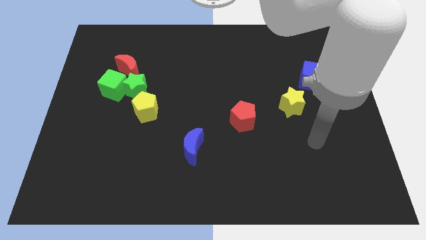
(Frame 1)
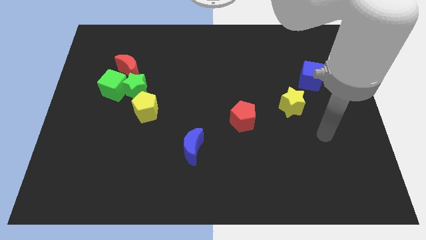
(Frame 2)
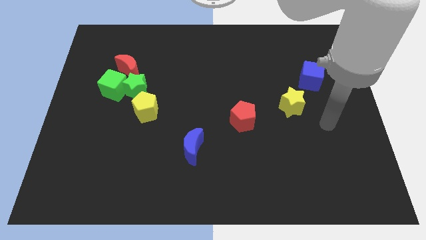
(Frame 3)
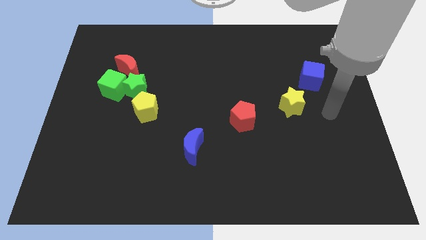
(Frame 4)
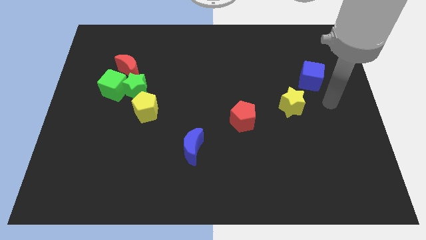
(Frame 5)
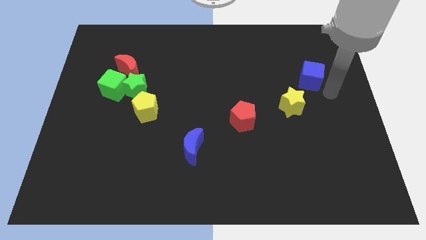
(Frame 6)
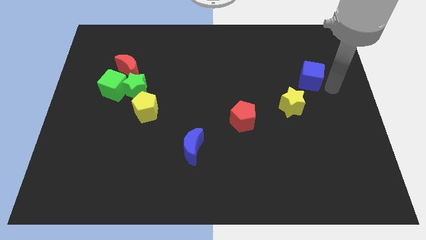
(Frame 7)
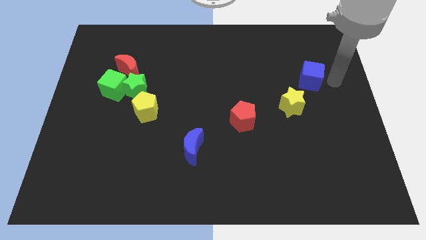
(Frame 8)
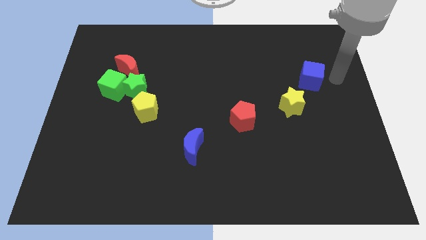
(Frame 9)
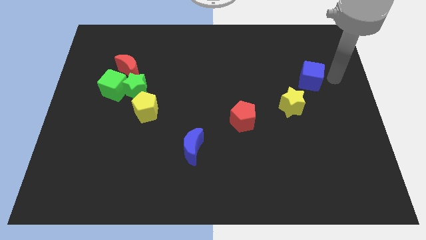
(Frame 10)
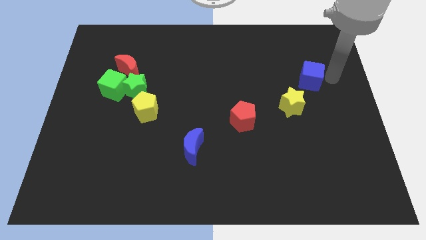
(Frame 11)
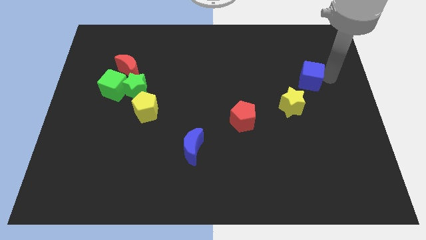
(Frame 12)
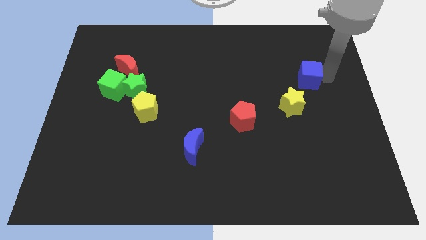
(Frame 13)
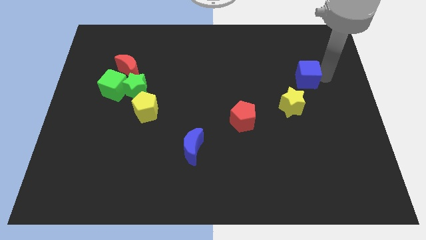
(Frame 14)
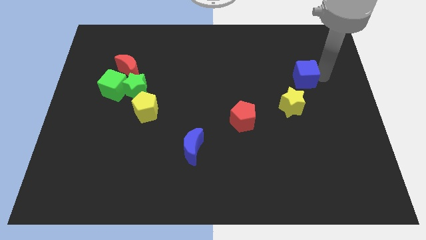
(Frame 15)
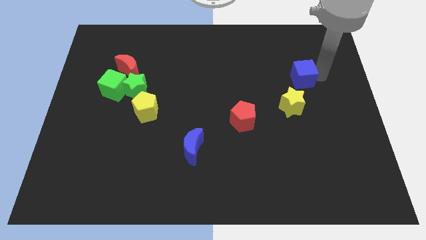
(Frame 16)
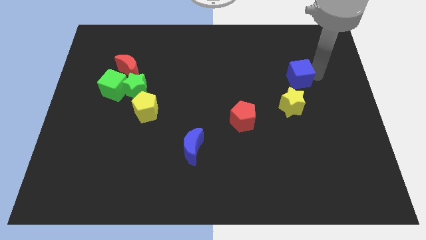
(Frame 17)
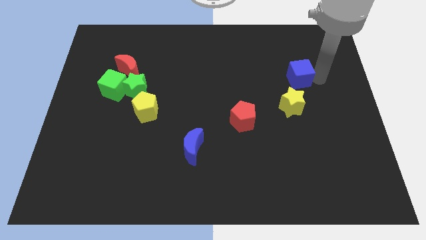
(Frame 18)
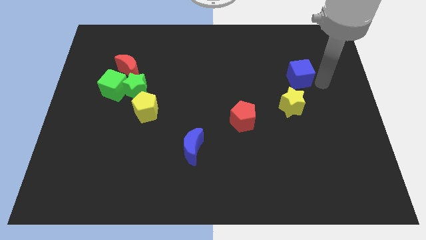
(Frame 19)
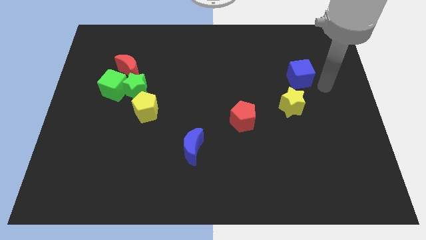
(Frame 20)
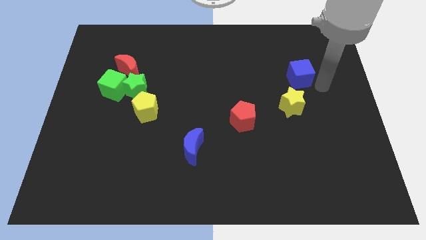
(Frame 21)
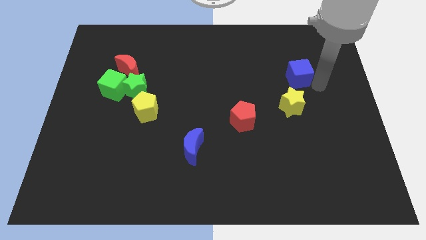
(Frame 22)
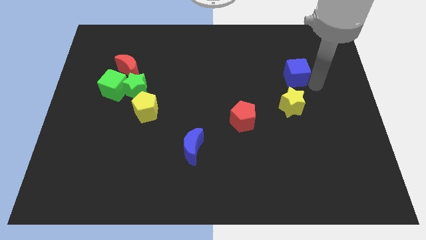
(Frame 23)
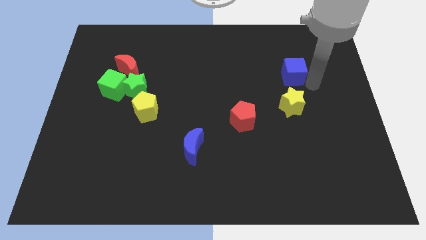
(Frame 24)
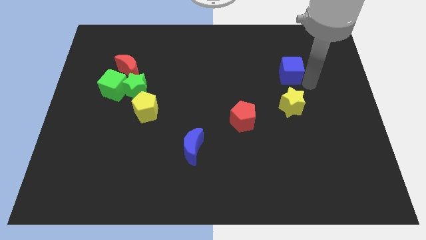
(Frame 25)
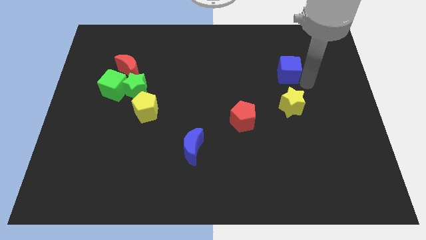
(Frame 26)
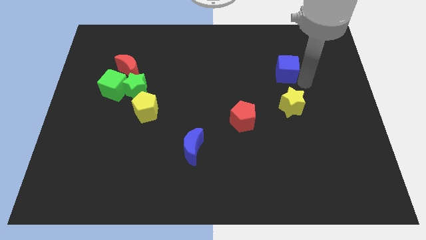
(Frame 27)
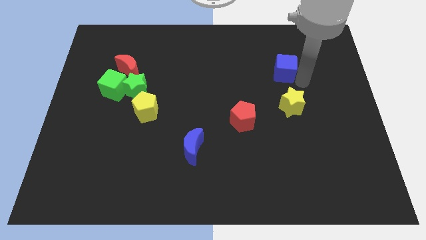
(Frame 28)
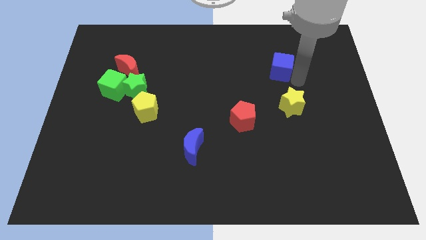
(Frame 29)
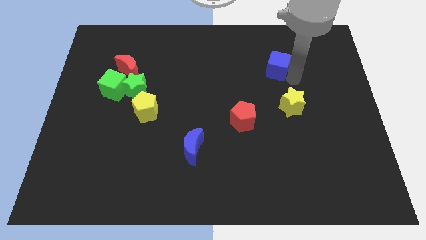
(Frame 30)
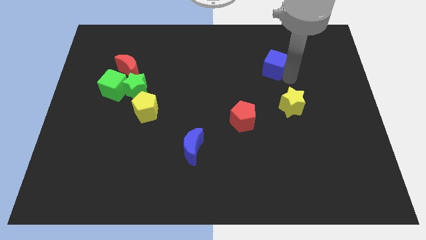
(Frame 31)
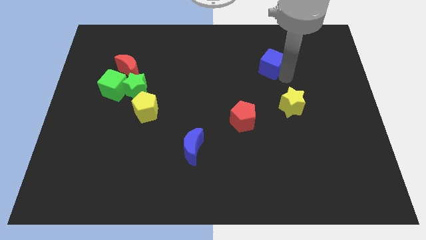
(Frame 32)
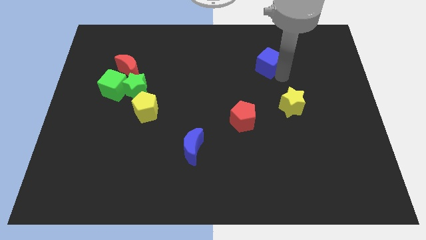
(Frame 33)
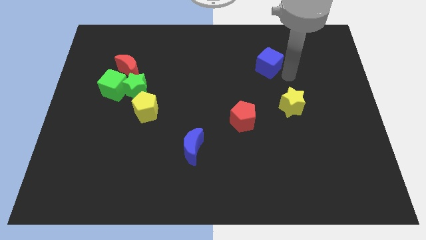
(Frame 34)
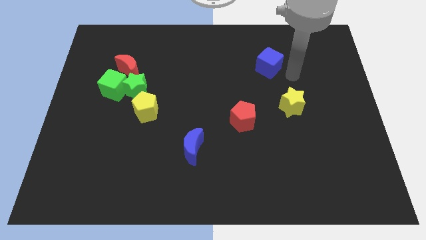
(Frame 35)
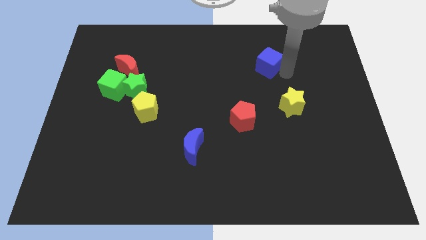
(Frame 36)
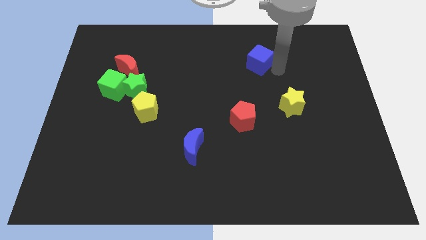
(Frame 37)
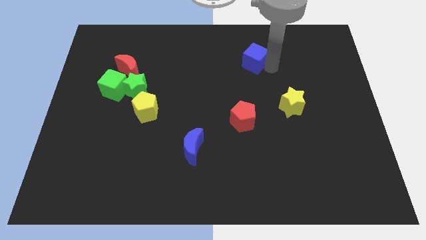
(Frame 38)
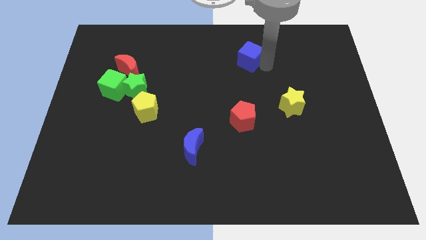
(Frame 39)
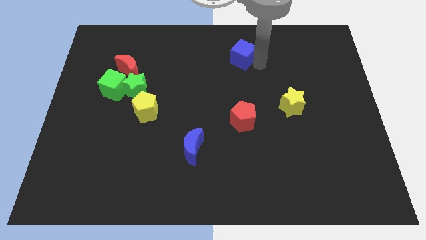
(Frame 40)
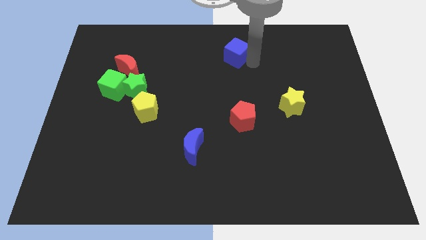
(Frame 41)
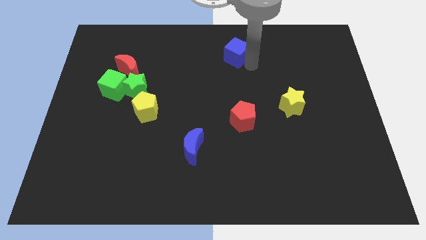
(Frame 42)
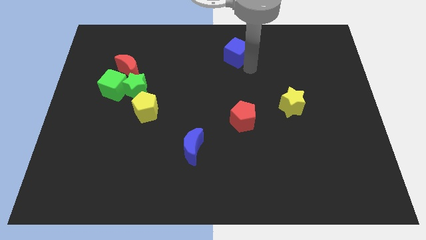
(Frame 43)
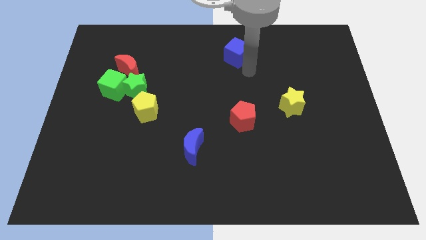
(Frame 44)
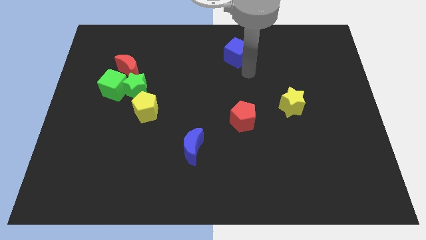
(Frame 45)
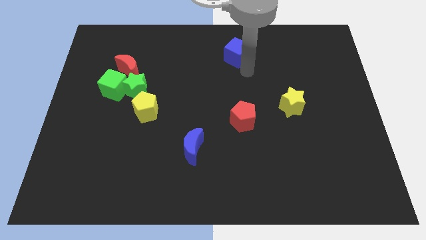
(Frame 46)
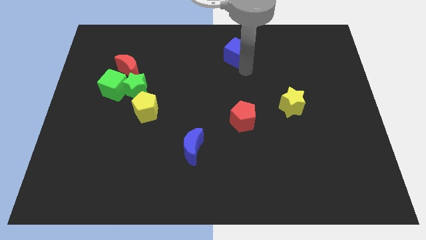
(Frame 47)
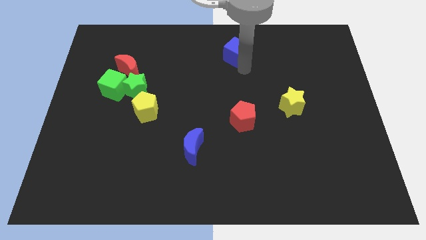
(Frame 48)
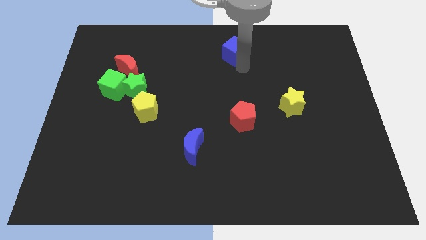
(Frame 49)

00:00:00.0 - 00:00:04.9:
put the blue cube to the top

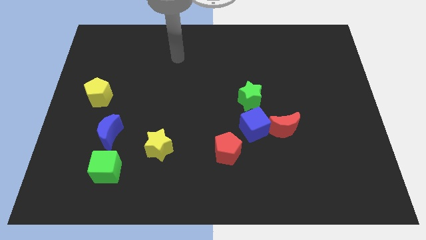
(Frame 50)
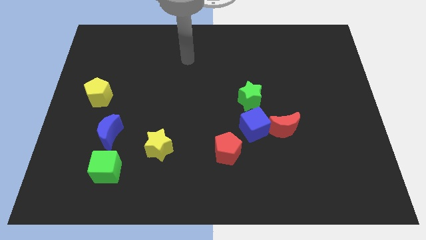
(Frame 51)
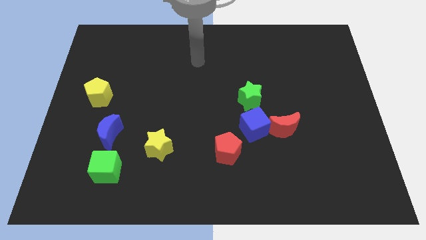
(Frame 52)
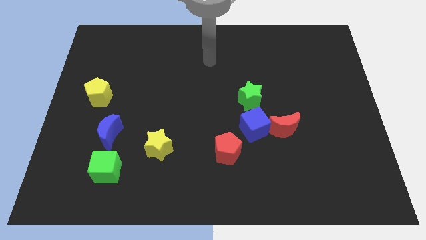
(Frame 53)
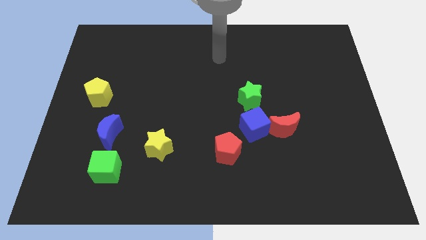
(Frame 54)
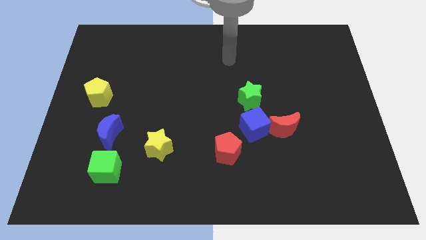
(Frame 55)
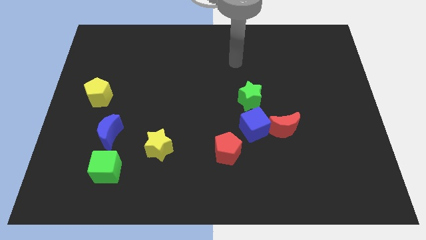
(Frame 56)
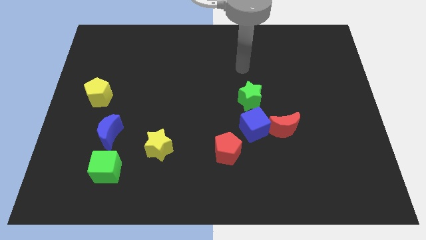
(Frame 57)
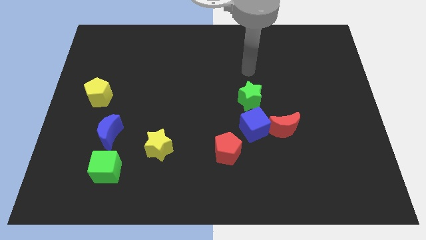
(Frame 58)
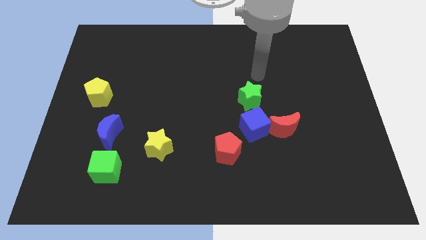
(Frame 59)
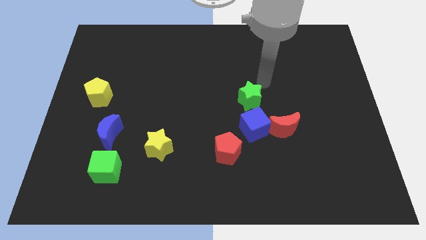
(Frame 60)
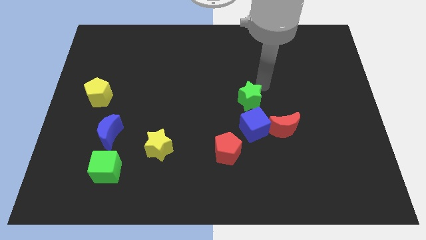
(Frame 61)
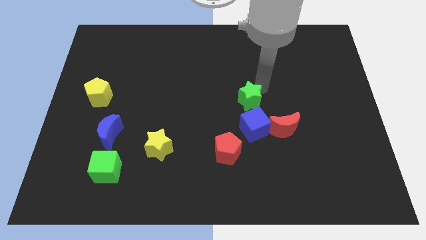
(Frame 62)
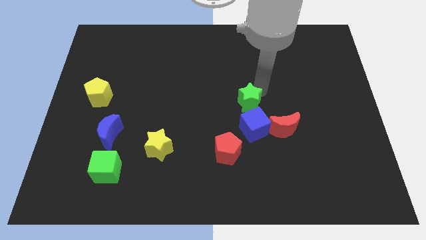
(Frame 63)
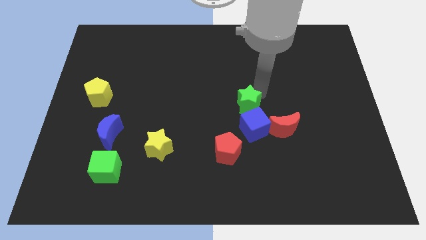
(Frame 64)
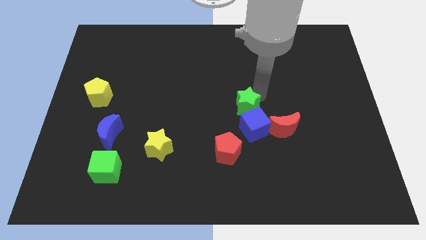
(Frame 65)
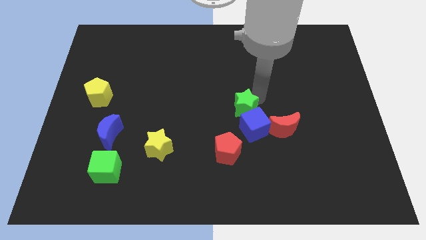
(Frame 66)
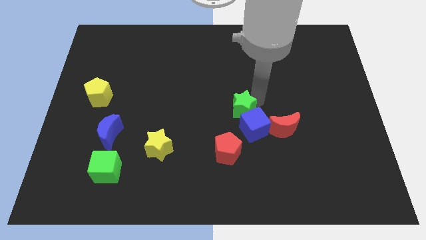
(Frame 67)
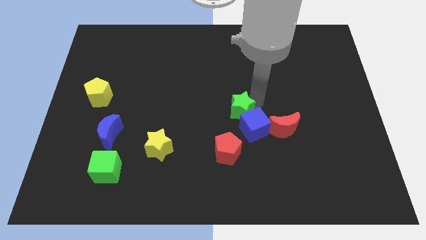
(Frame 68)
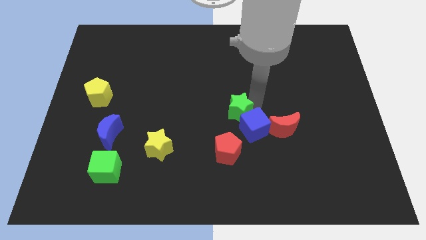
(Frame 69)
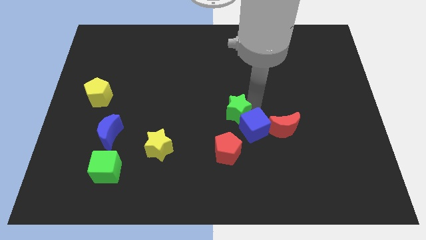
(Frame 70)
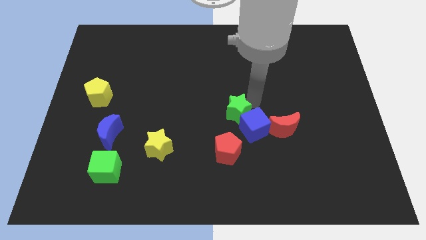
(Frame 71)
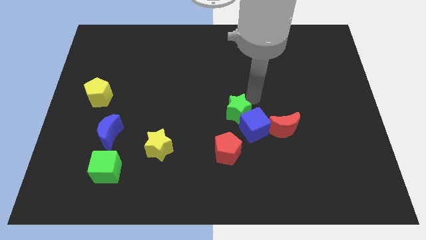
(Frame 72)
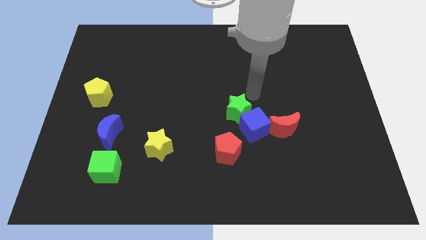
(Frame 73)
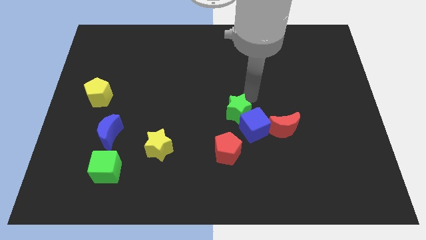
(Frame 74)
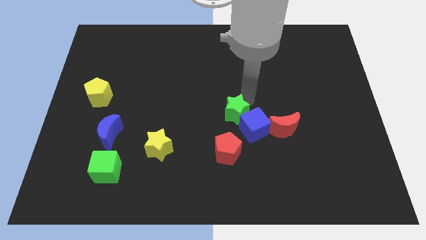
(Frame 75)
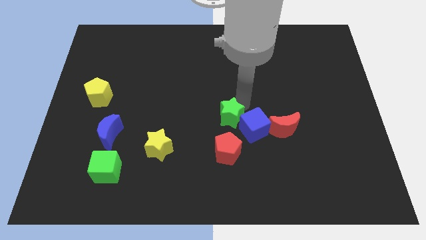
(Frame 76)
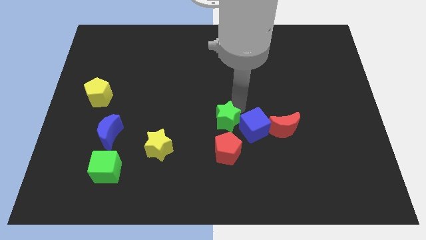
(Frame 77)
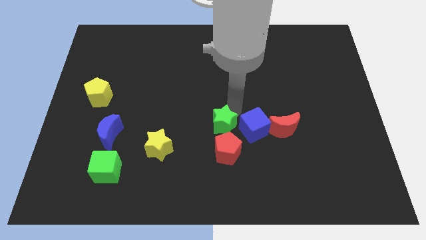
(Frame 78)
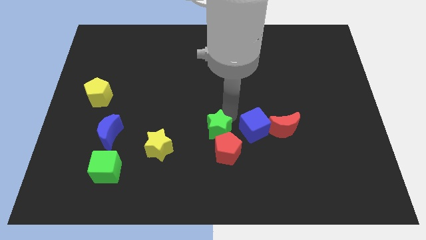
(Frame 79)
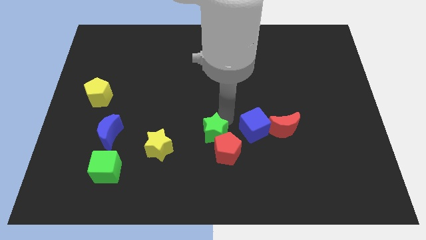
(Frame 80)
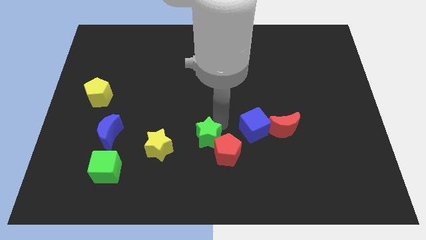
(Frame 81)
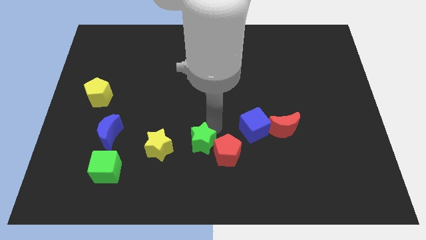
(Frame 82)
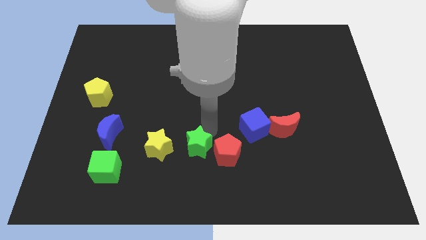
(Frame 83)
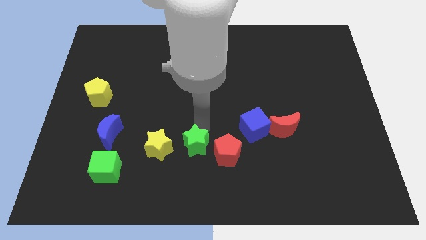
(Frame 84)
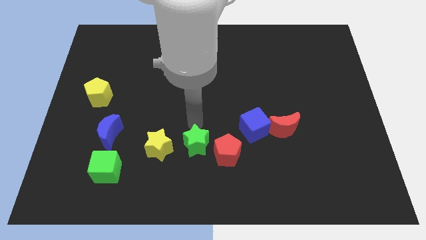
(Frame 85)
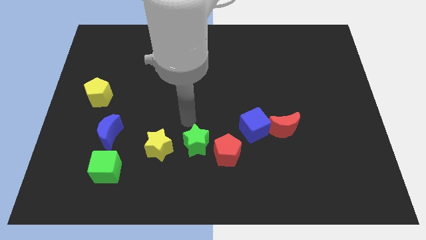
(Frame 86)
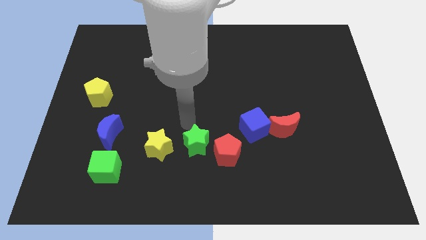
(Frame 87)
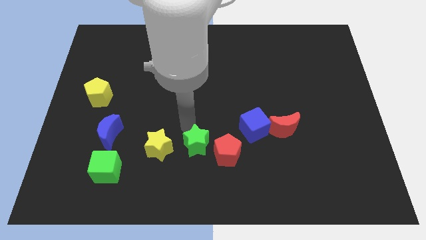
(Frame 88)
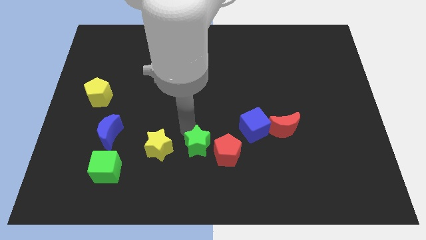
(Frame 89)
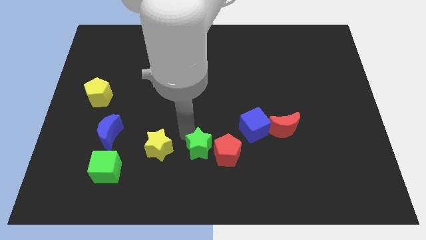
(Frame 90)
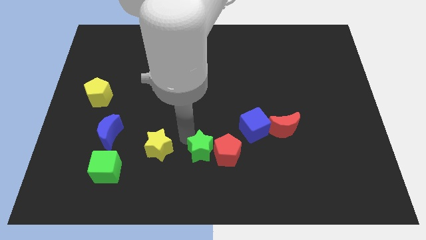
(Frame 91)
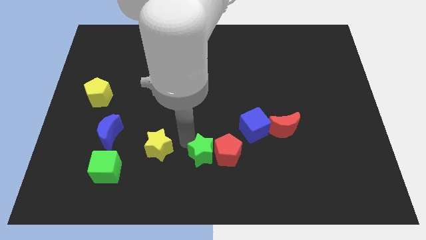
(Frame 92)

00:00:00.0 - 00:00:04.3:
move the green star to the bottom

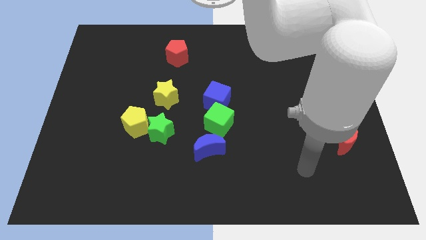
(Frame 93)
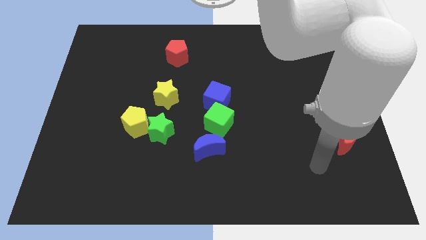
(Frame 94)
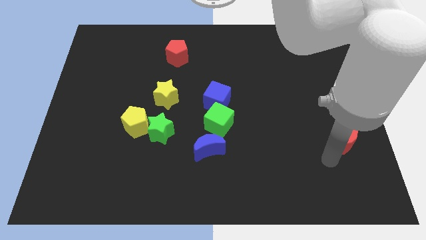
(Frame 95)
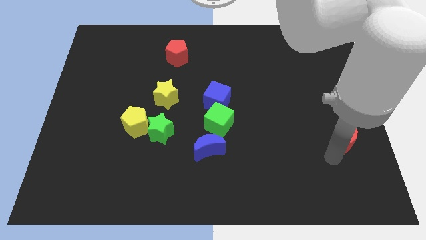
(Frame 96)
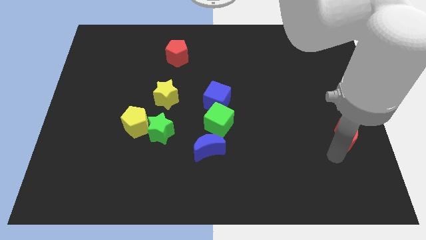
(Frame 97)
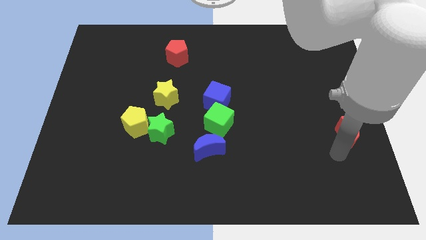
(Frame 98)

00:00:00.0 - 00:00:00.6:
push the red moon to the right side
